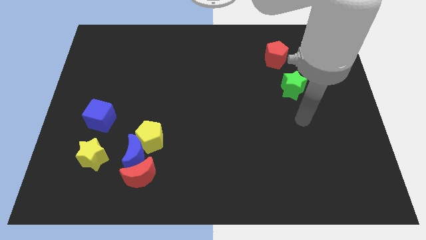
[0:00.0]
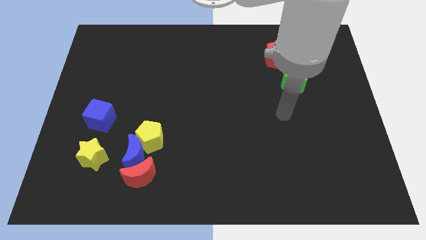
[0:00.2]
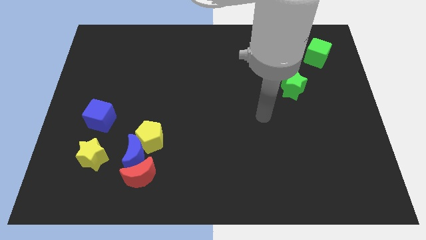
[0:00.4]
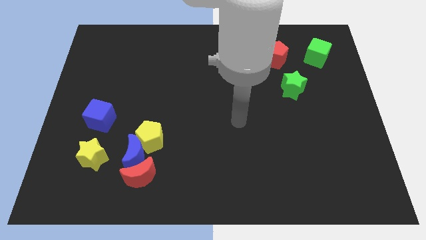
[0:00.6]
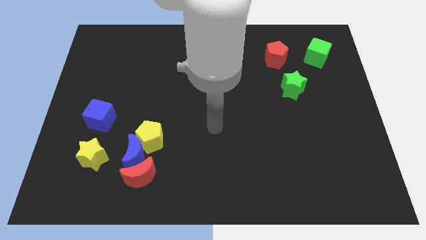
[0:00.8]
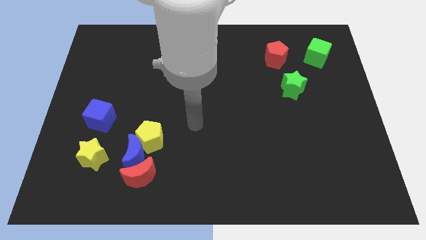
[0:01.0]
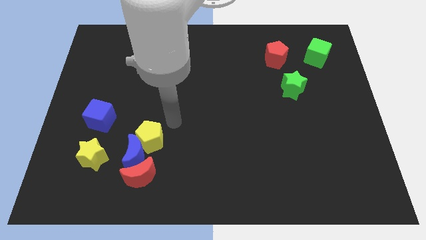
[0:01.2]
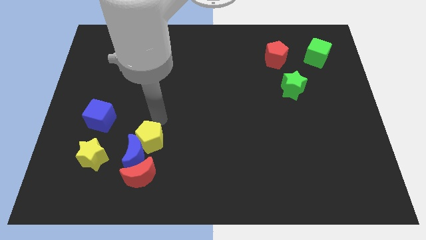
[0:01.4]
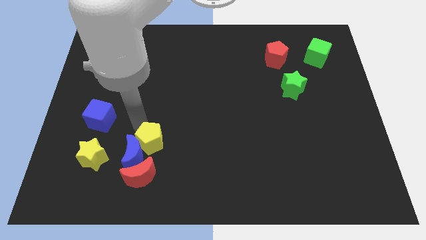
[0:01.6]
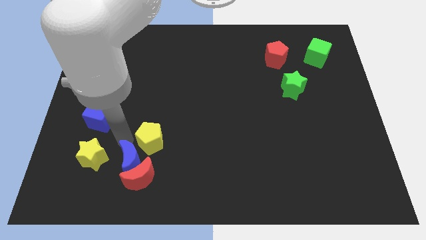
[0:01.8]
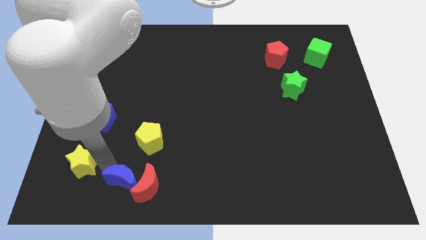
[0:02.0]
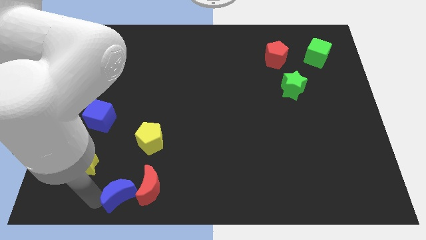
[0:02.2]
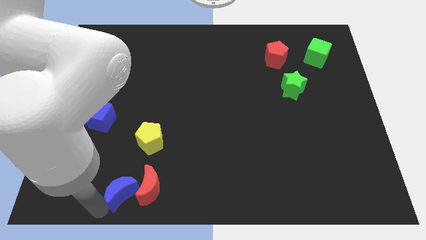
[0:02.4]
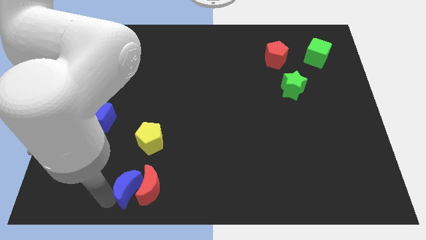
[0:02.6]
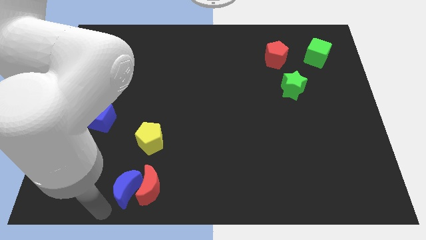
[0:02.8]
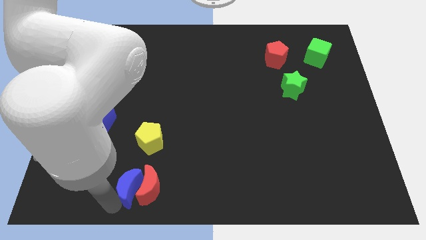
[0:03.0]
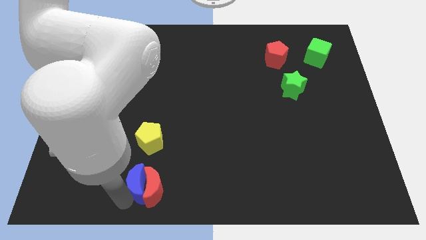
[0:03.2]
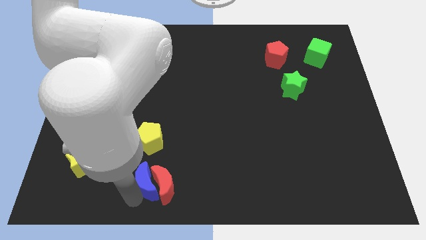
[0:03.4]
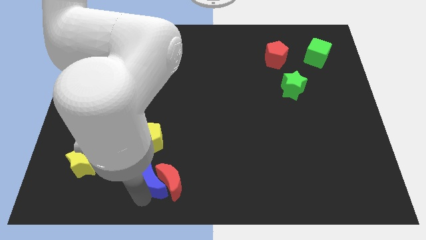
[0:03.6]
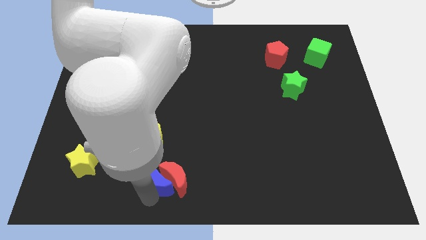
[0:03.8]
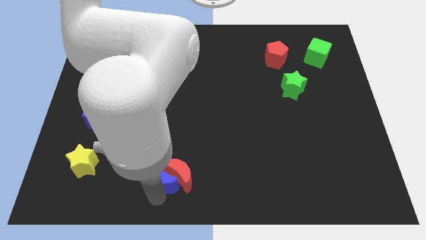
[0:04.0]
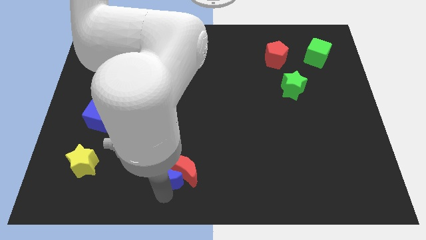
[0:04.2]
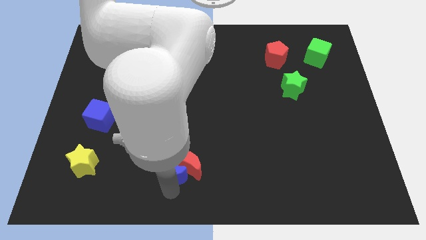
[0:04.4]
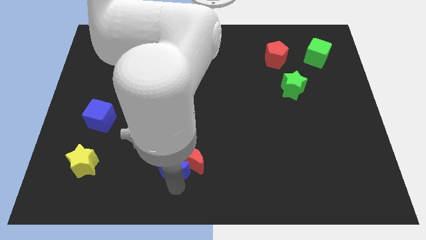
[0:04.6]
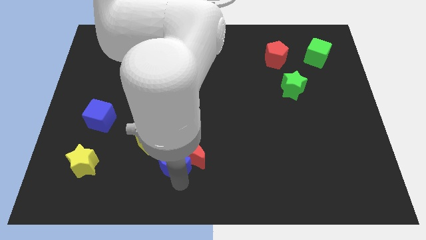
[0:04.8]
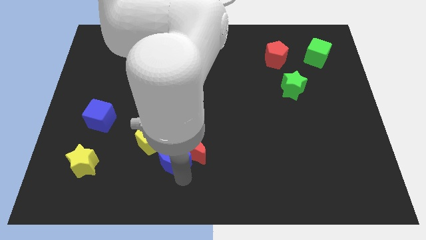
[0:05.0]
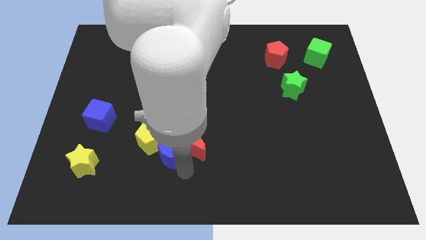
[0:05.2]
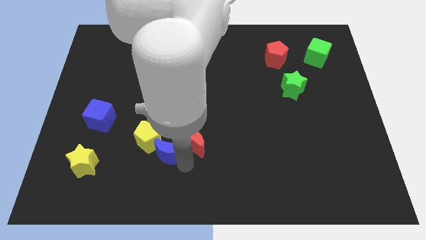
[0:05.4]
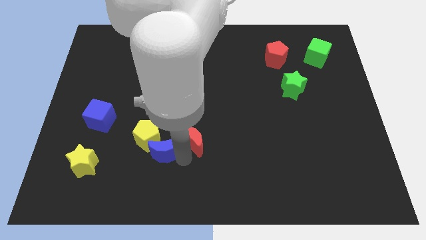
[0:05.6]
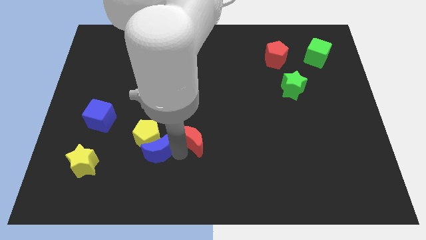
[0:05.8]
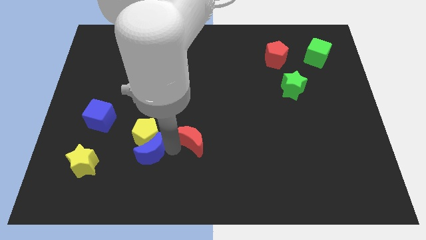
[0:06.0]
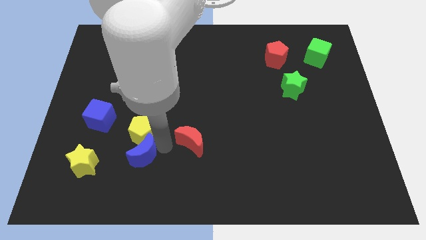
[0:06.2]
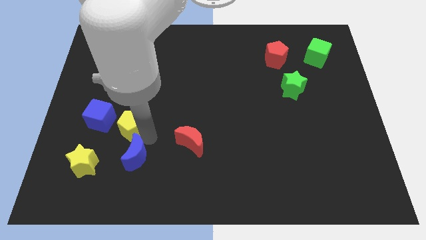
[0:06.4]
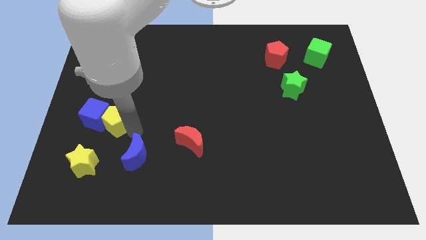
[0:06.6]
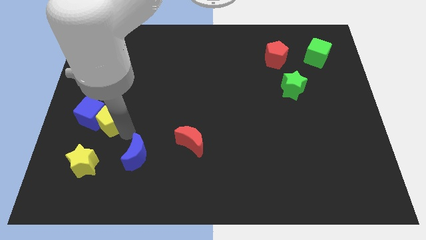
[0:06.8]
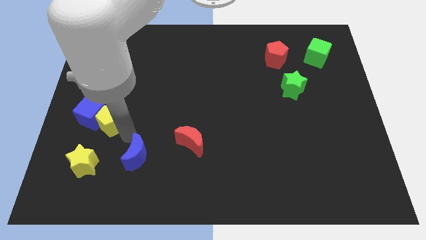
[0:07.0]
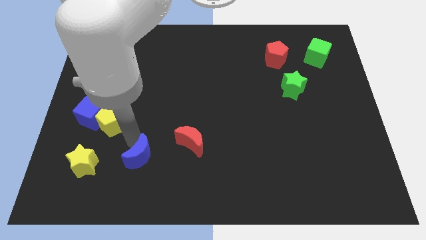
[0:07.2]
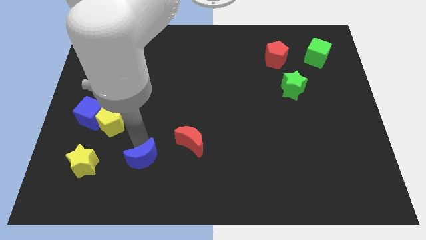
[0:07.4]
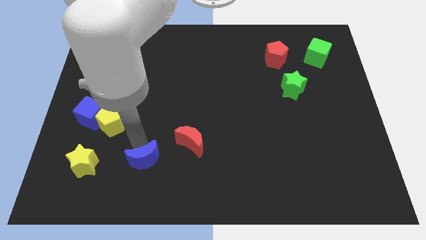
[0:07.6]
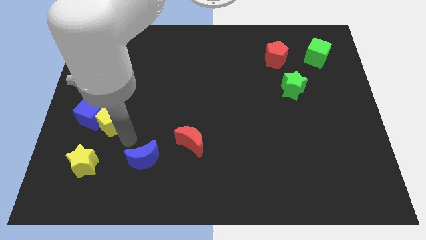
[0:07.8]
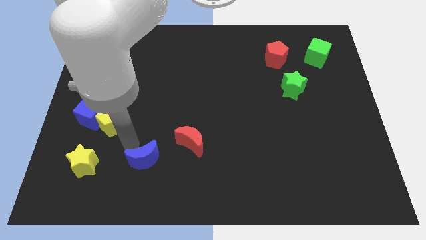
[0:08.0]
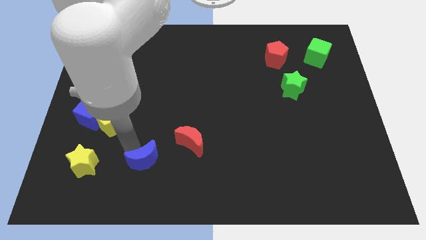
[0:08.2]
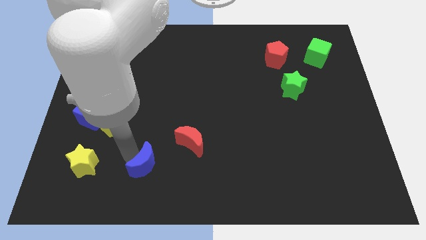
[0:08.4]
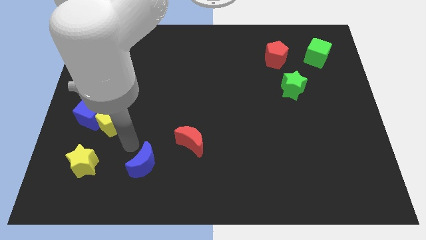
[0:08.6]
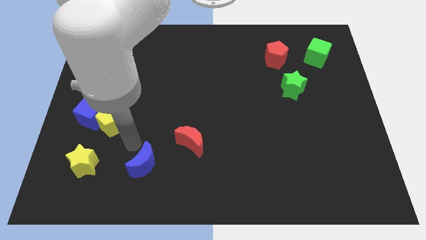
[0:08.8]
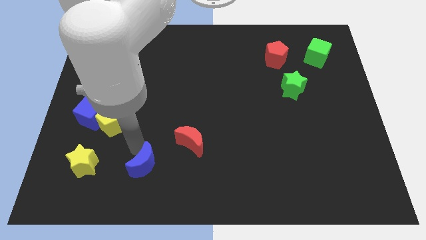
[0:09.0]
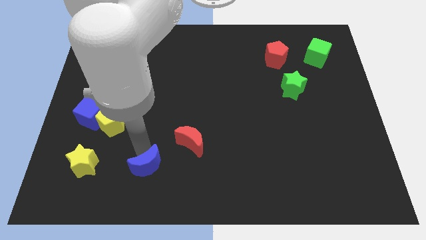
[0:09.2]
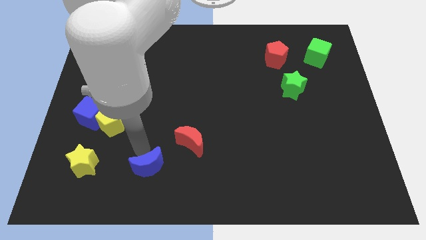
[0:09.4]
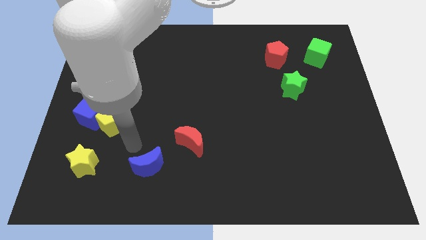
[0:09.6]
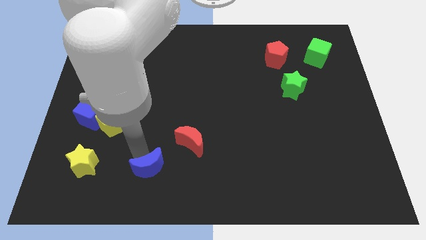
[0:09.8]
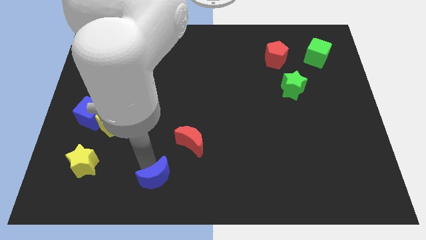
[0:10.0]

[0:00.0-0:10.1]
separate the blue moon from the yellow pentagon, red moon, and yellow star

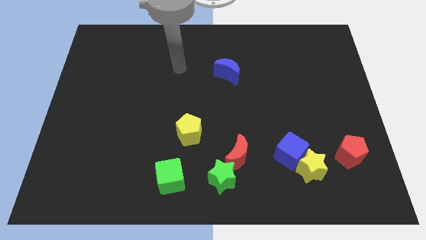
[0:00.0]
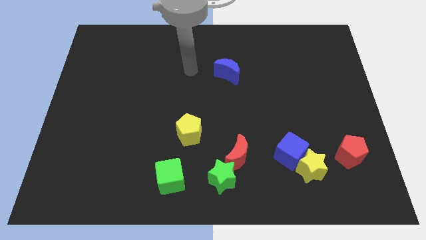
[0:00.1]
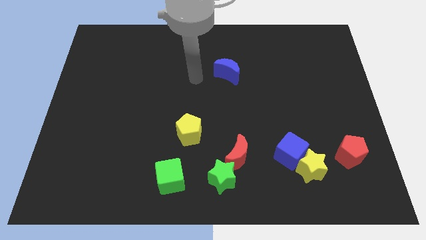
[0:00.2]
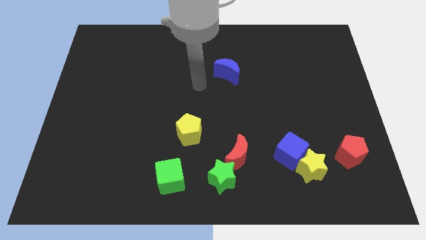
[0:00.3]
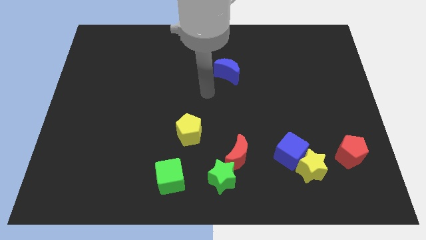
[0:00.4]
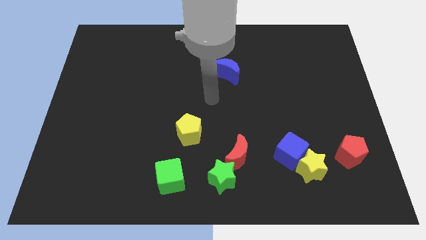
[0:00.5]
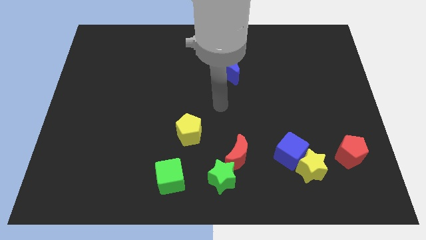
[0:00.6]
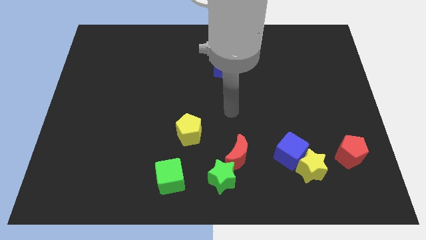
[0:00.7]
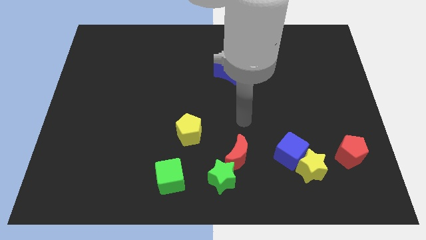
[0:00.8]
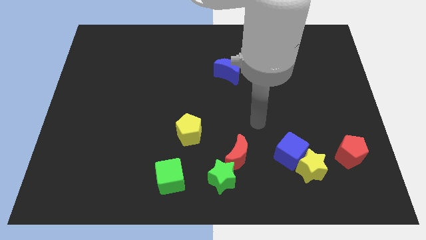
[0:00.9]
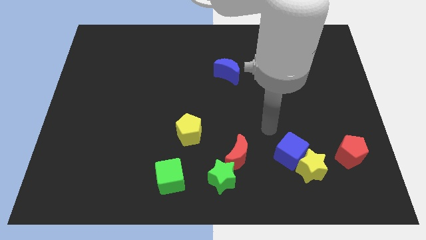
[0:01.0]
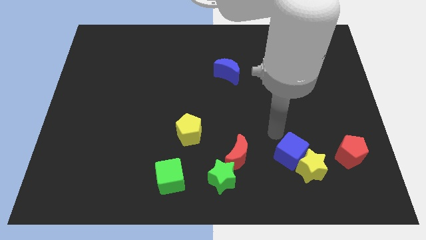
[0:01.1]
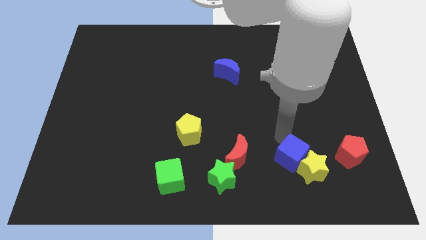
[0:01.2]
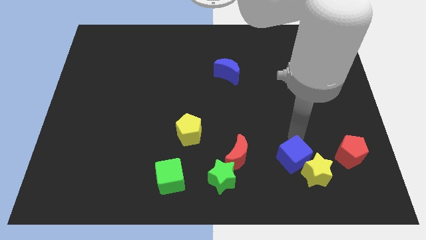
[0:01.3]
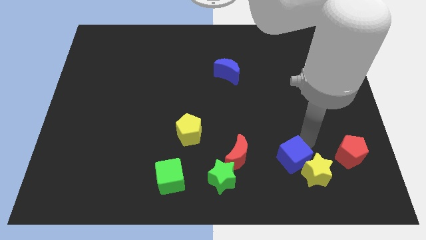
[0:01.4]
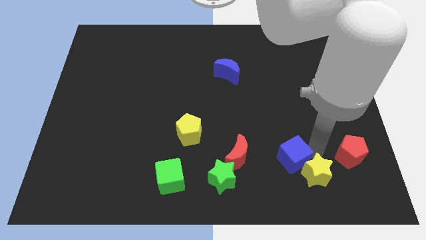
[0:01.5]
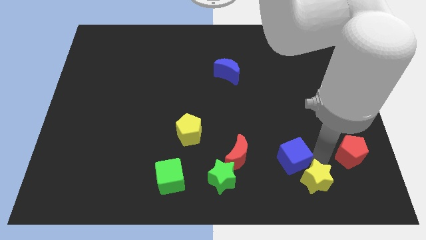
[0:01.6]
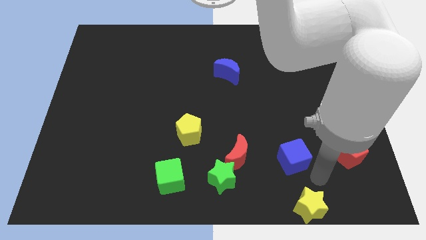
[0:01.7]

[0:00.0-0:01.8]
separate the blue cube from the yellow star

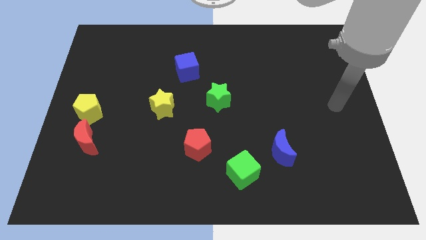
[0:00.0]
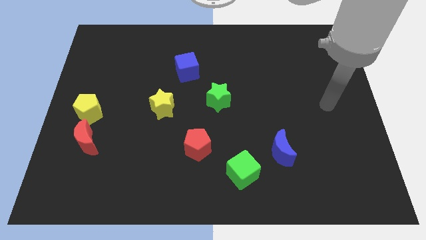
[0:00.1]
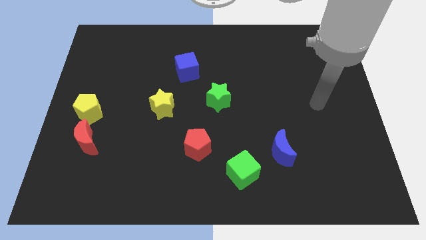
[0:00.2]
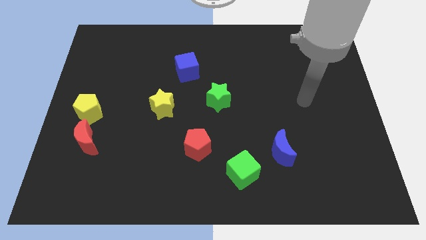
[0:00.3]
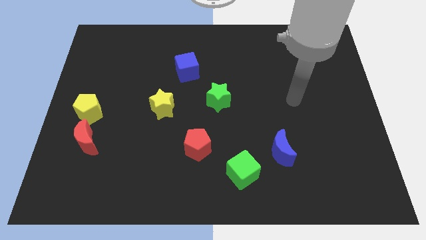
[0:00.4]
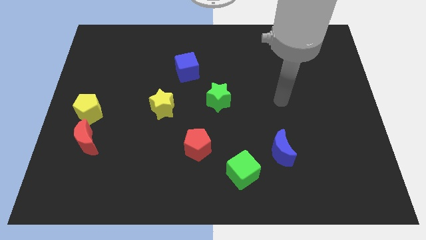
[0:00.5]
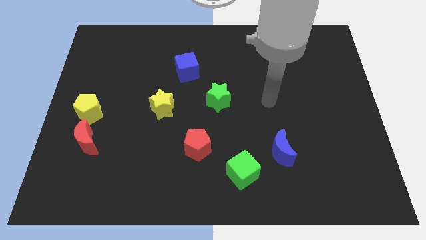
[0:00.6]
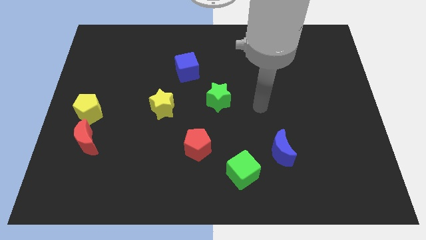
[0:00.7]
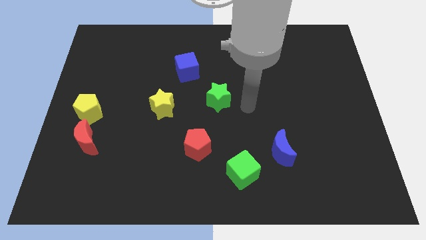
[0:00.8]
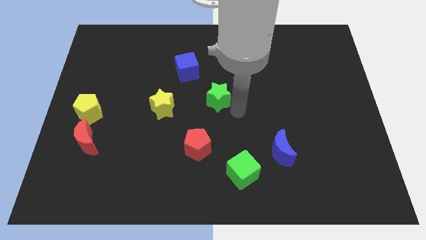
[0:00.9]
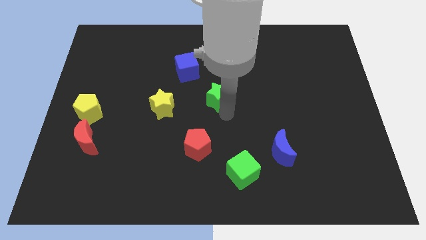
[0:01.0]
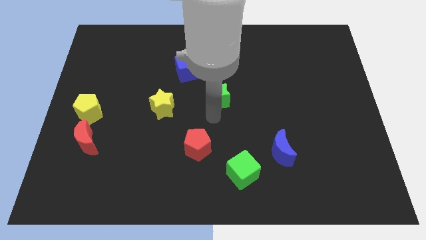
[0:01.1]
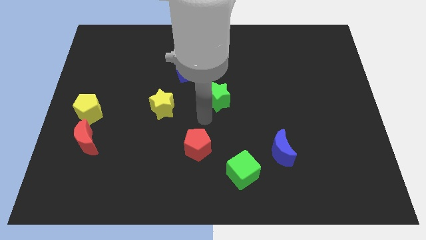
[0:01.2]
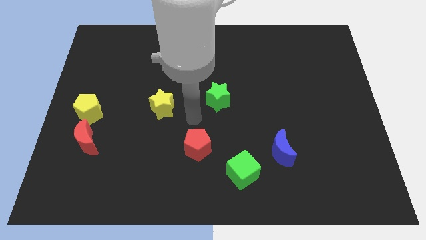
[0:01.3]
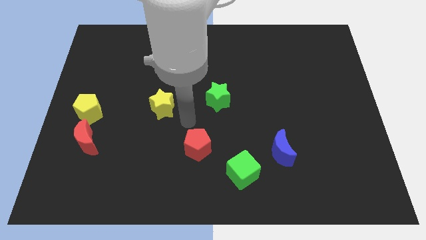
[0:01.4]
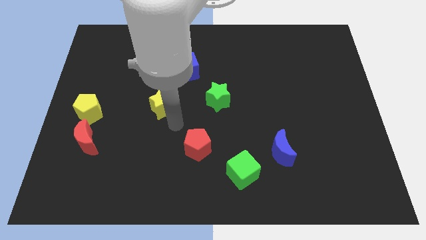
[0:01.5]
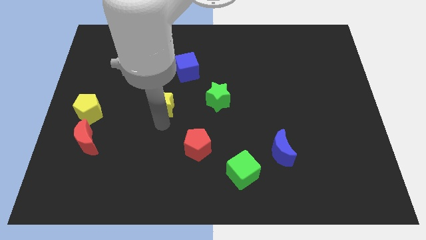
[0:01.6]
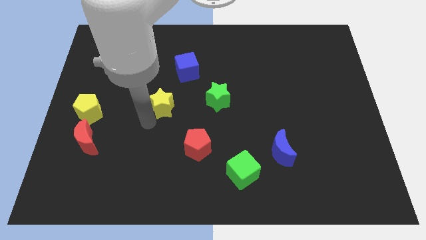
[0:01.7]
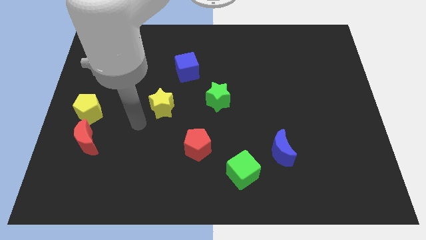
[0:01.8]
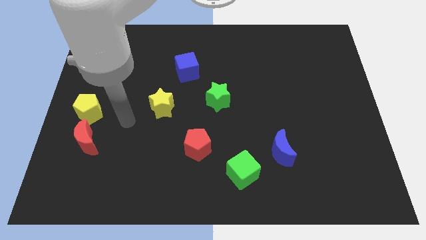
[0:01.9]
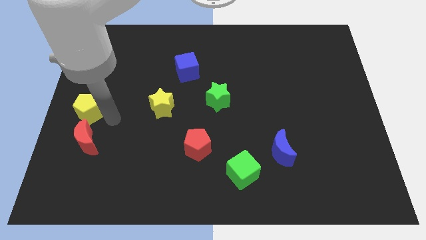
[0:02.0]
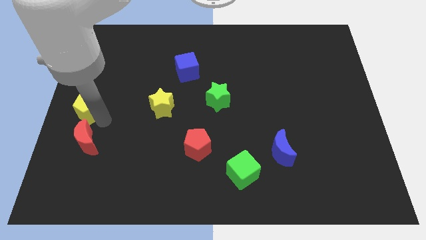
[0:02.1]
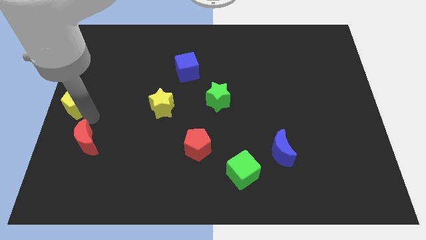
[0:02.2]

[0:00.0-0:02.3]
pull the red moon apart from the yellow pentagon

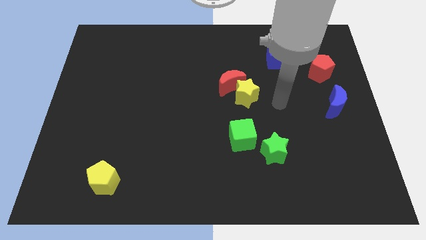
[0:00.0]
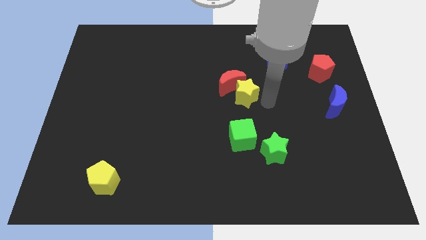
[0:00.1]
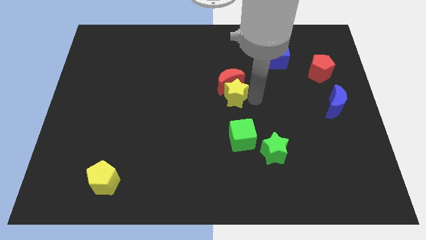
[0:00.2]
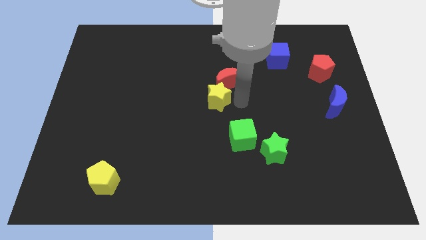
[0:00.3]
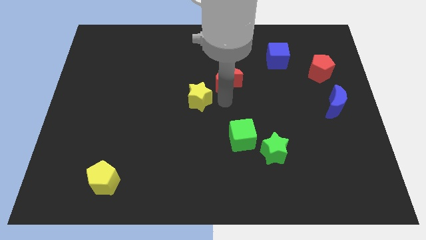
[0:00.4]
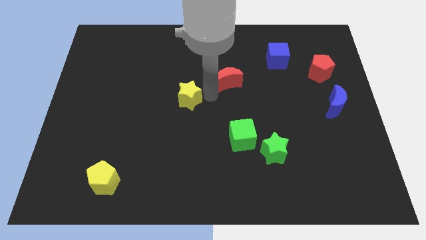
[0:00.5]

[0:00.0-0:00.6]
move the red moon away from the yellow star
